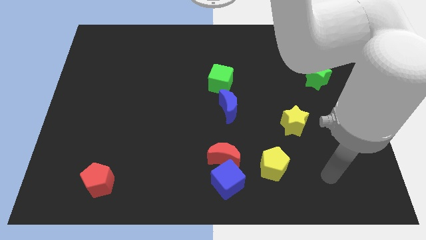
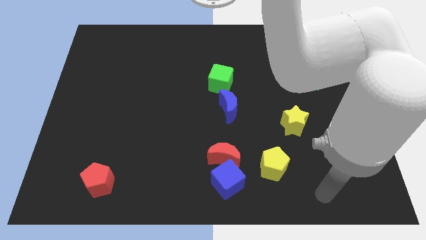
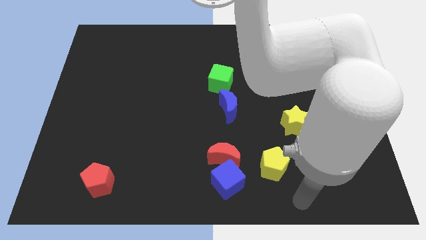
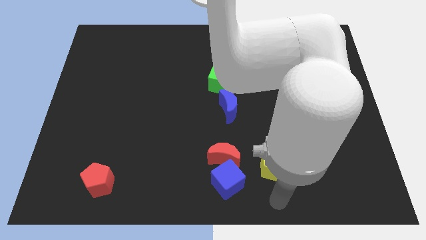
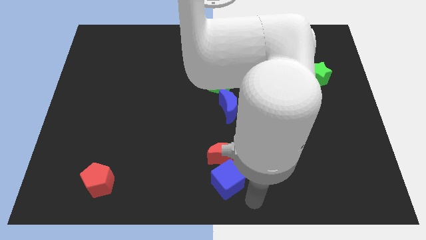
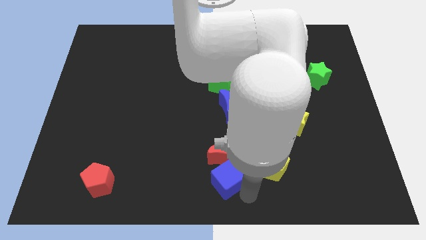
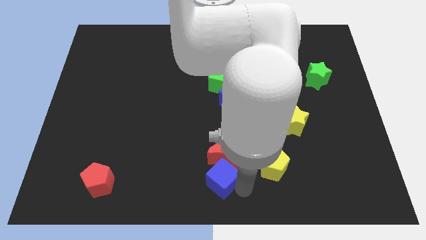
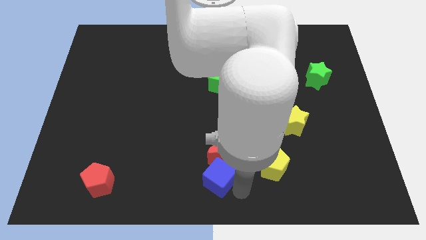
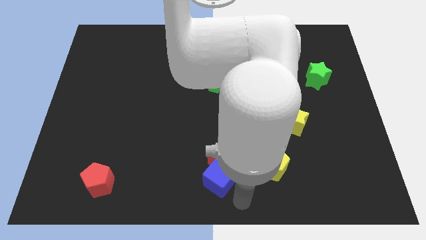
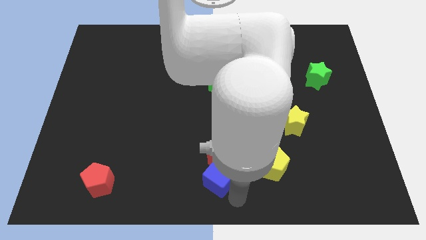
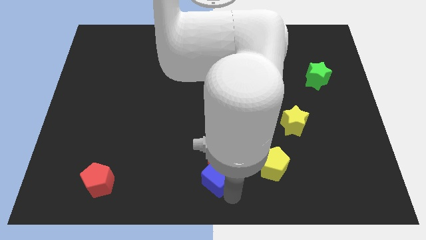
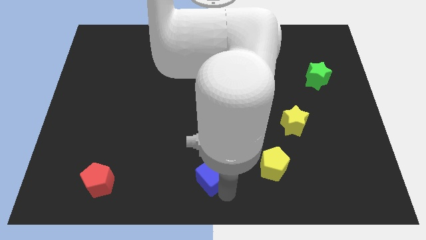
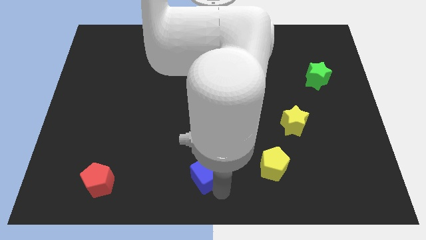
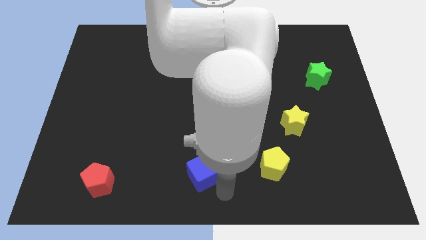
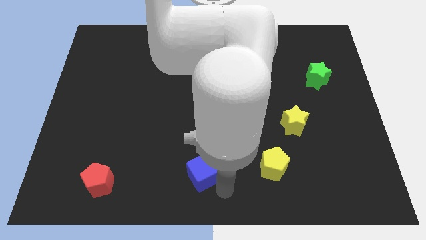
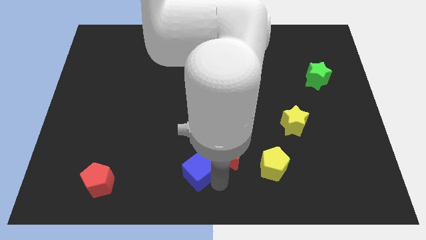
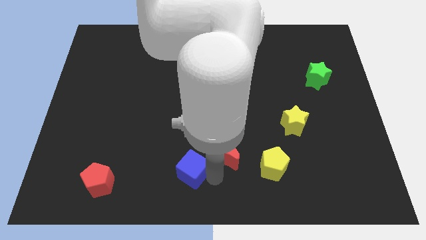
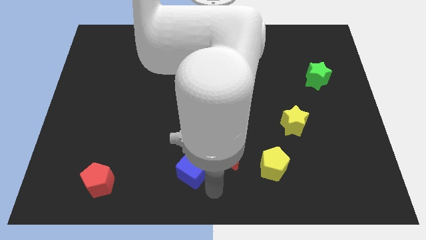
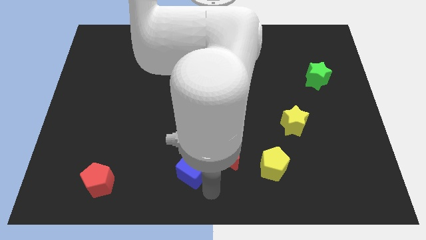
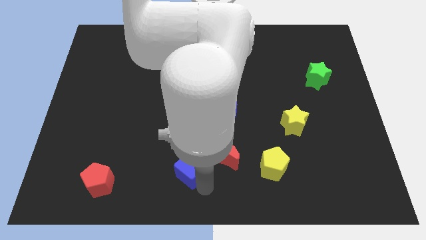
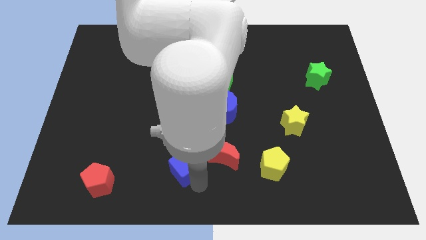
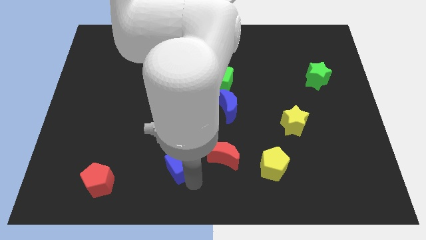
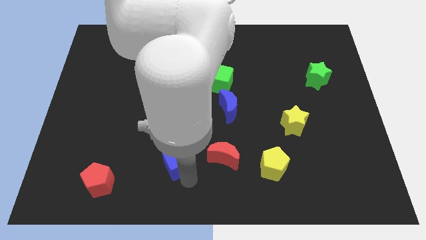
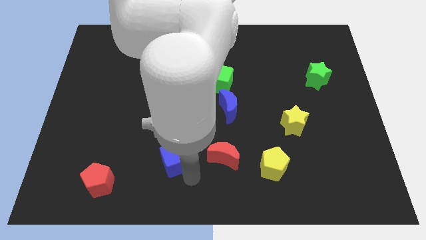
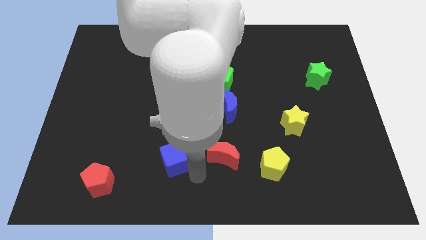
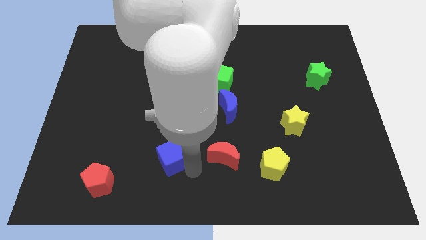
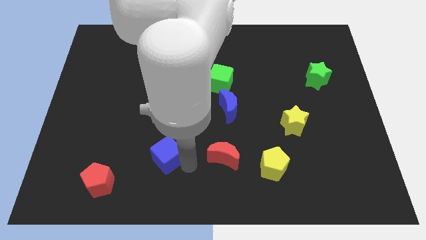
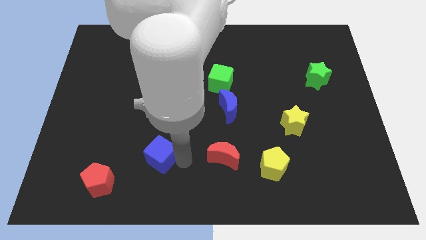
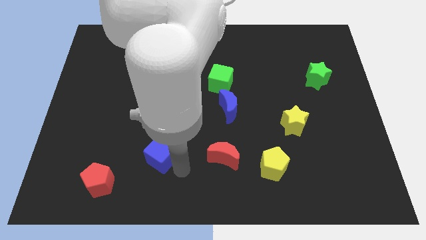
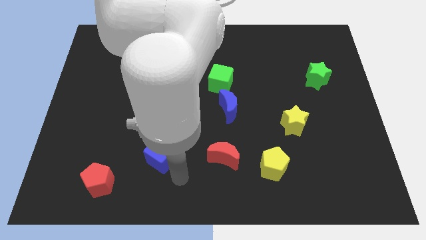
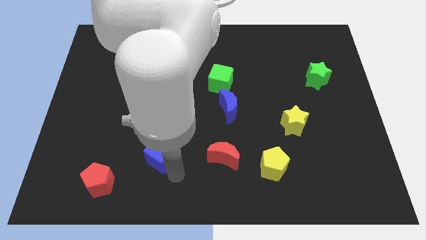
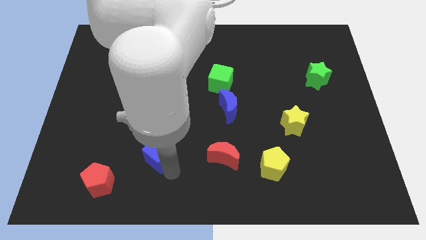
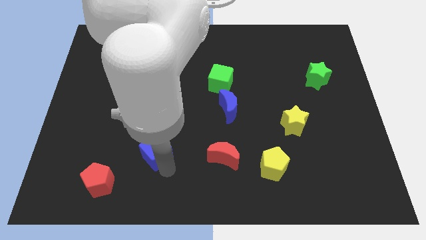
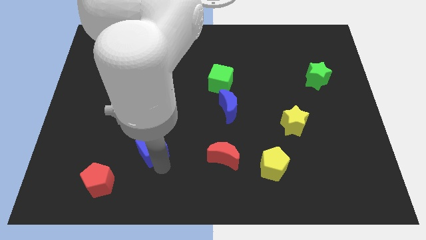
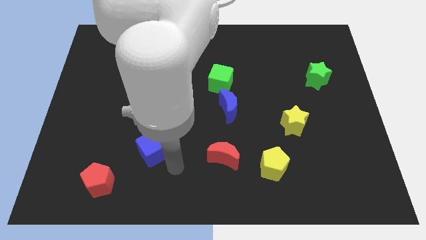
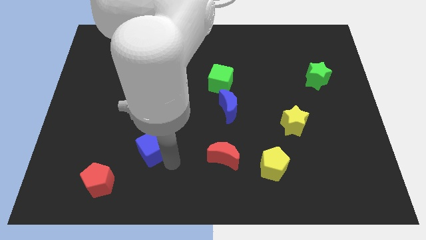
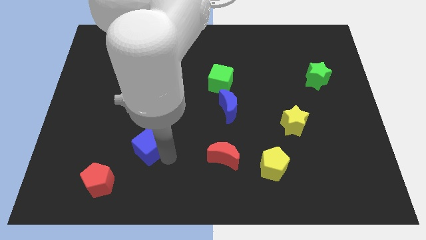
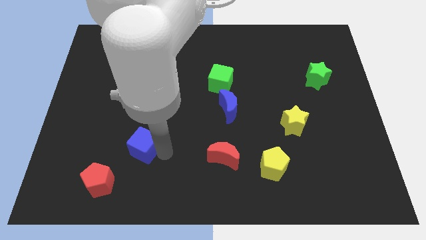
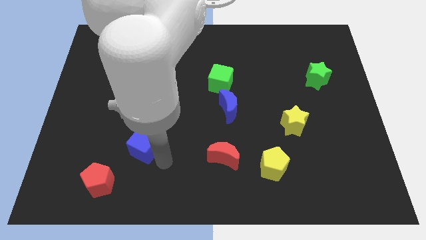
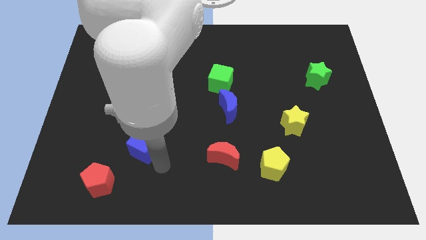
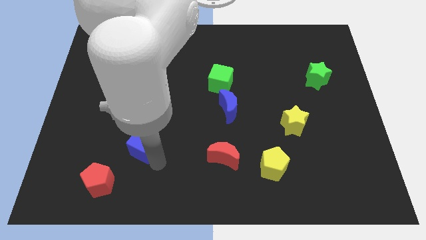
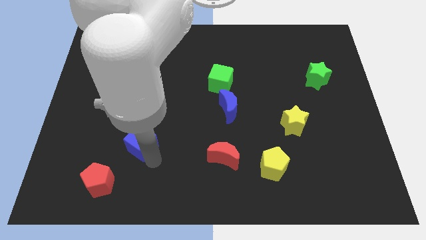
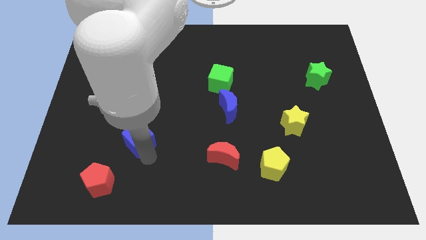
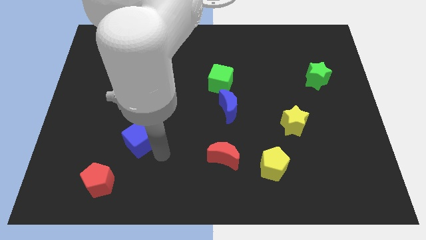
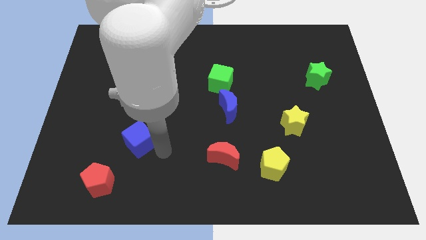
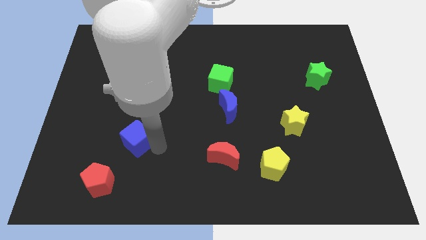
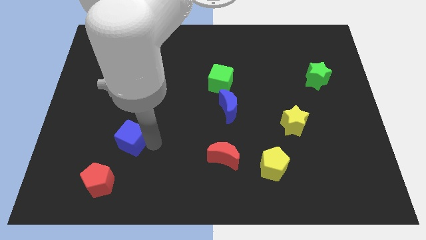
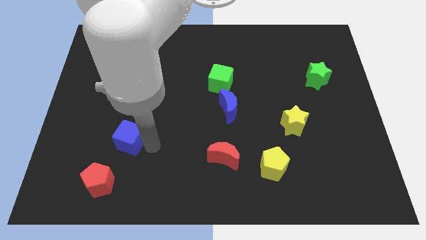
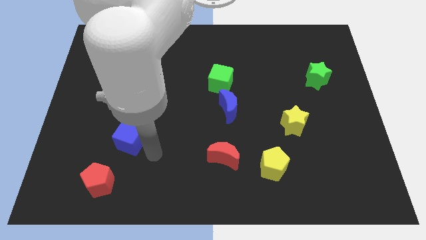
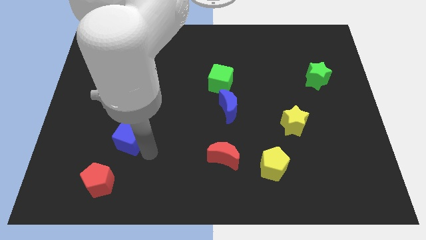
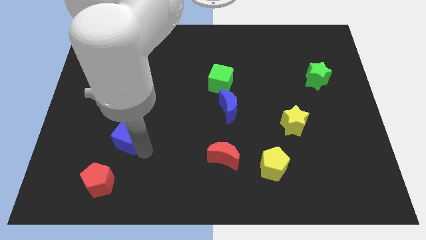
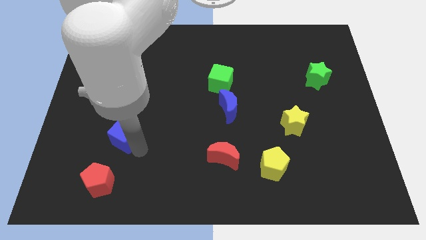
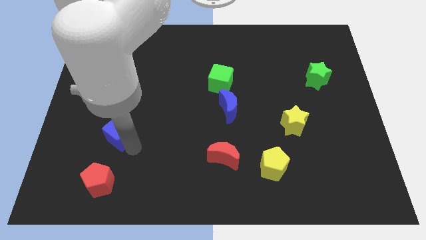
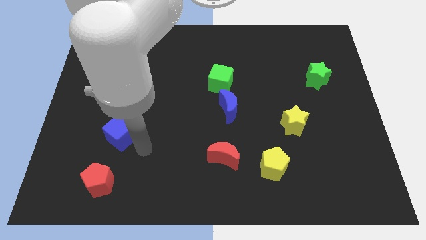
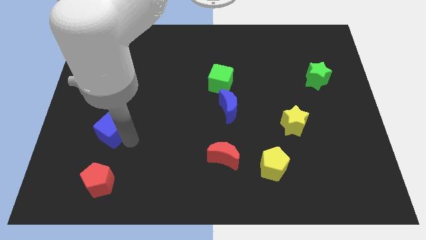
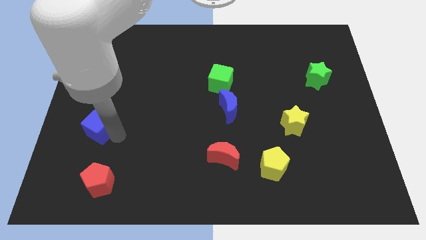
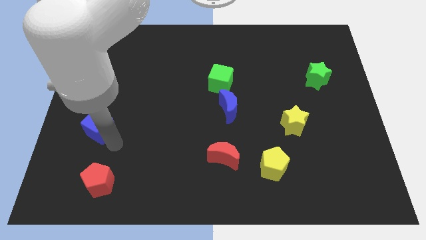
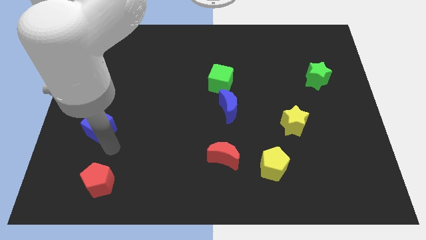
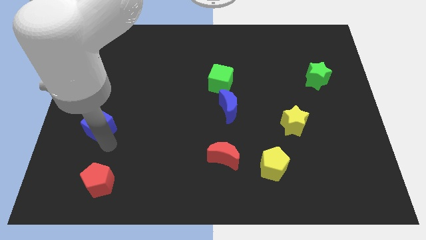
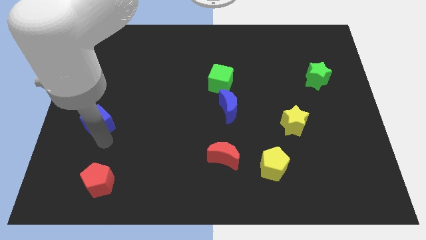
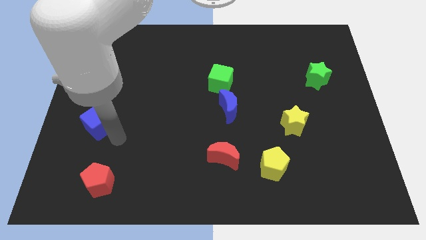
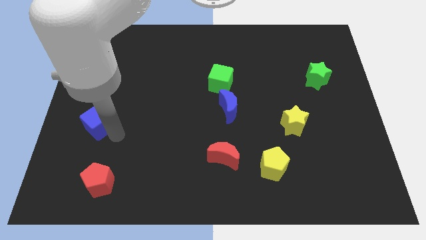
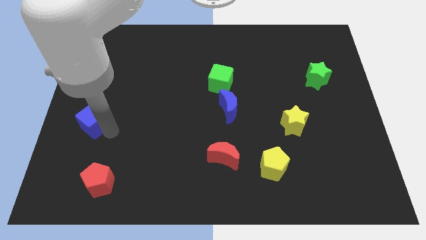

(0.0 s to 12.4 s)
put the blue cube to the left side
